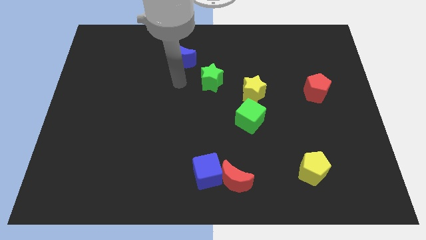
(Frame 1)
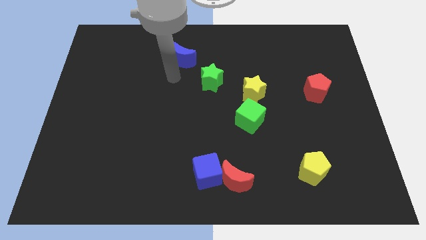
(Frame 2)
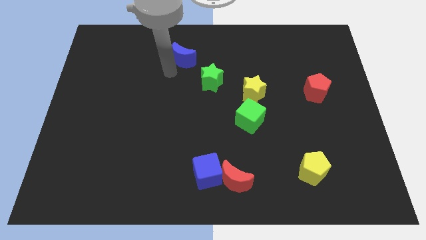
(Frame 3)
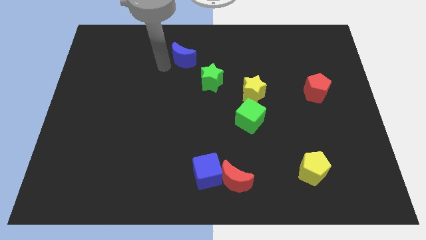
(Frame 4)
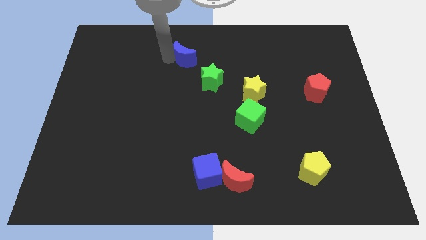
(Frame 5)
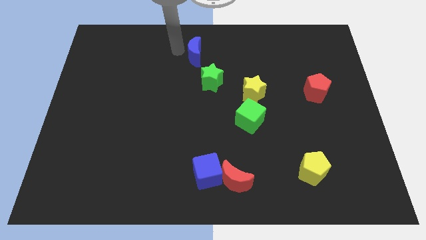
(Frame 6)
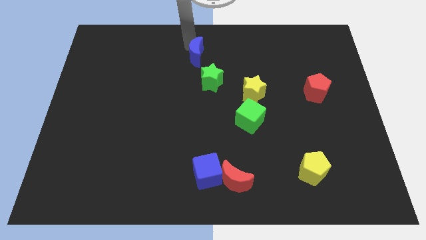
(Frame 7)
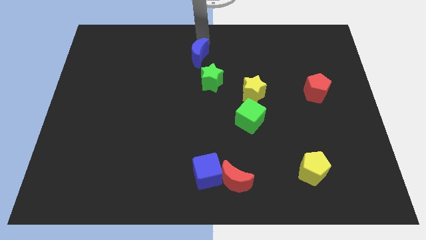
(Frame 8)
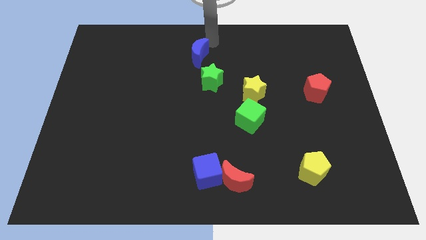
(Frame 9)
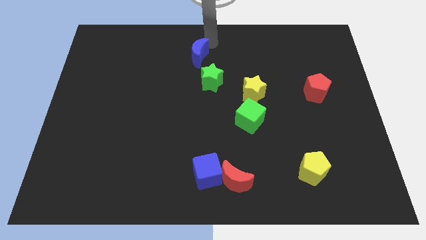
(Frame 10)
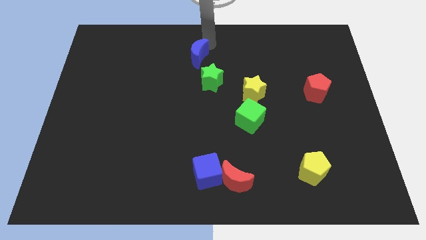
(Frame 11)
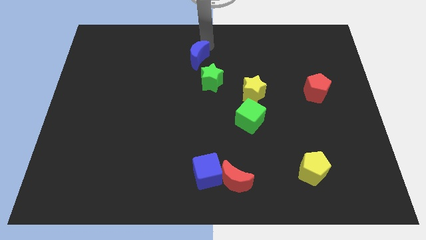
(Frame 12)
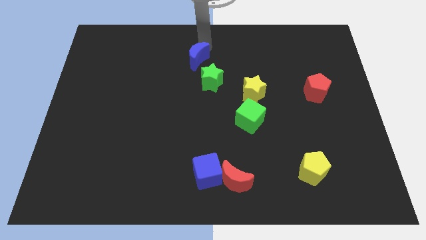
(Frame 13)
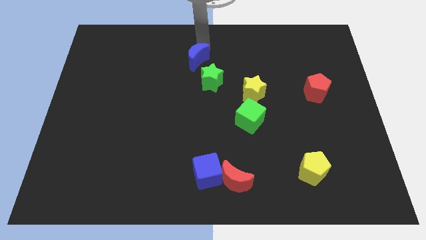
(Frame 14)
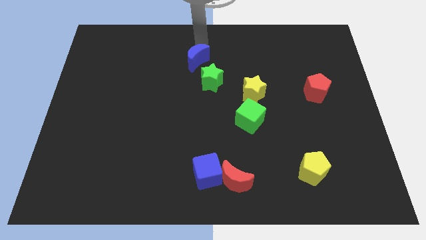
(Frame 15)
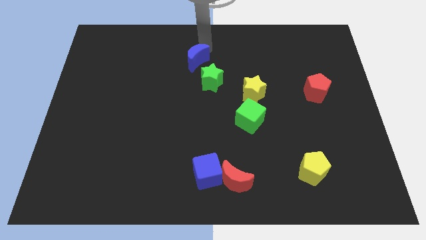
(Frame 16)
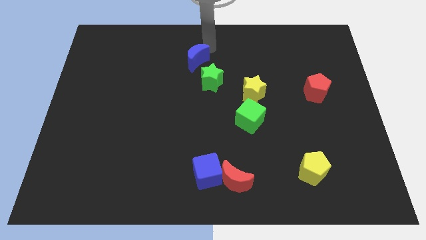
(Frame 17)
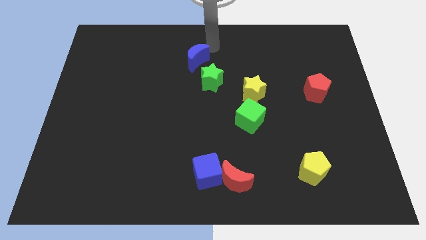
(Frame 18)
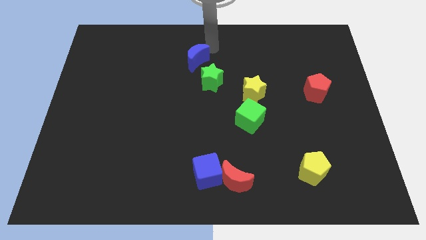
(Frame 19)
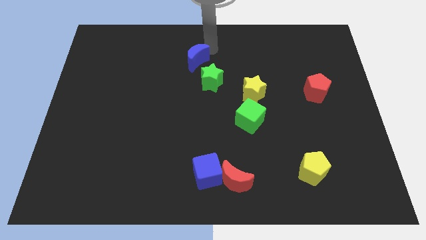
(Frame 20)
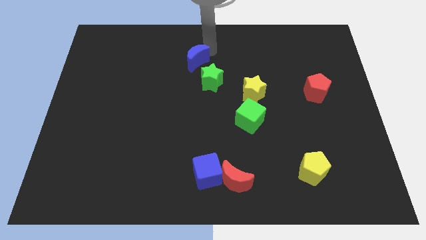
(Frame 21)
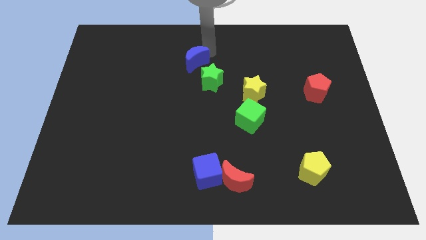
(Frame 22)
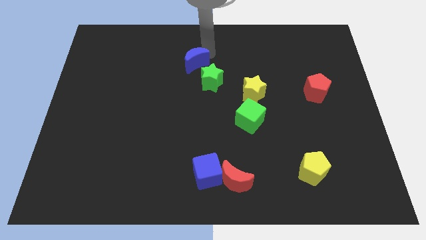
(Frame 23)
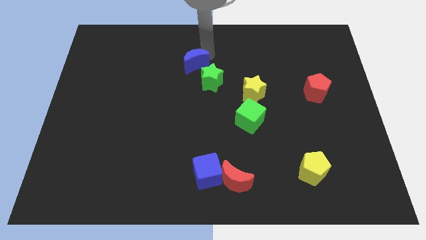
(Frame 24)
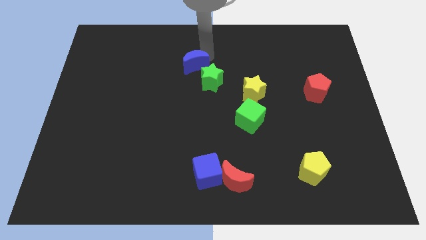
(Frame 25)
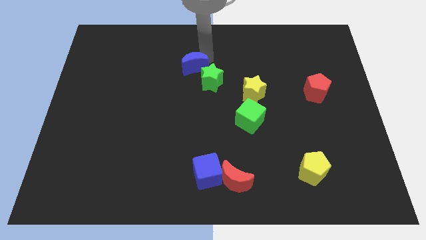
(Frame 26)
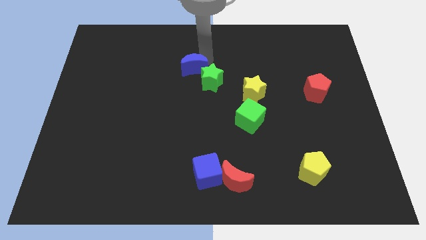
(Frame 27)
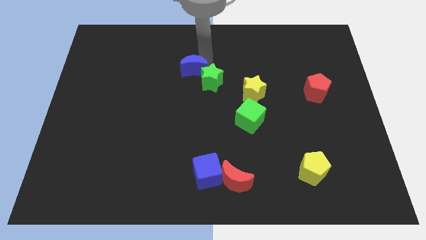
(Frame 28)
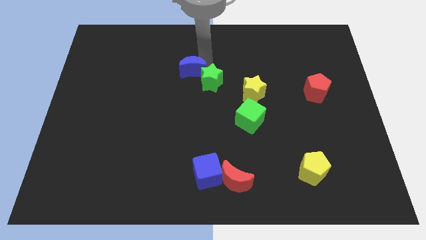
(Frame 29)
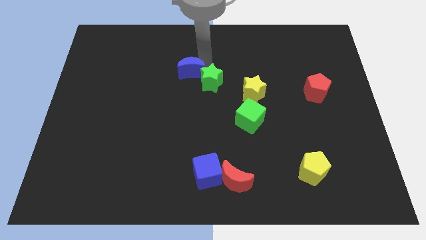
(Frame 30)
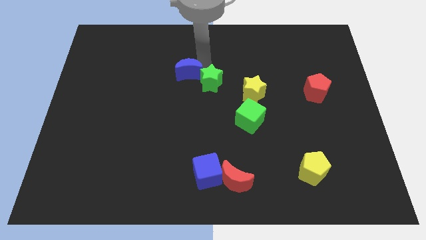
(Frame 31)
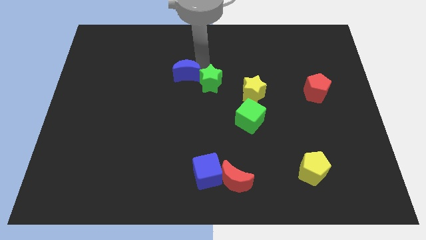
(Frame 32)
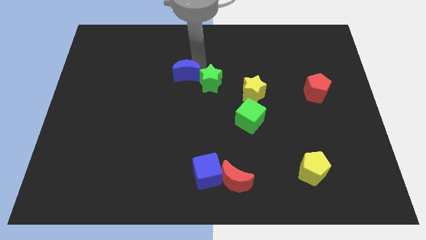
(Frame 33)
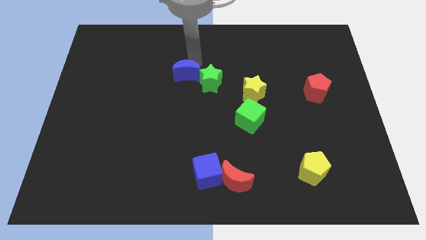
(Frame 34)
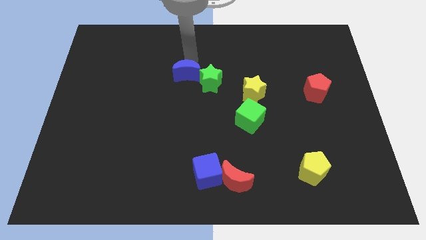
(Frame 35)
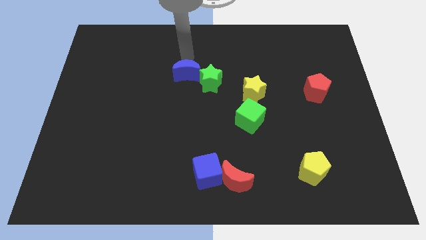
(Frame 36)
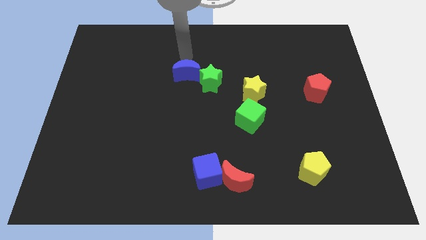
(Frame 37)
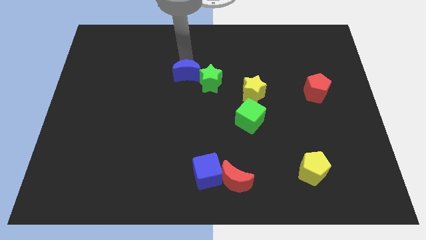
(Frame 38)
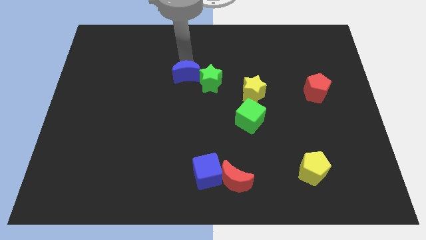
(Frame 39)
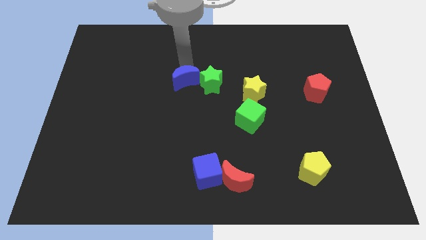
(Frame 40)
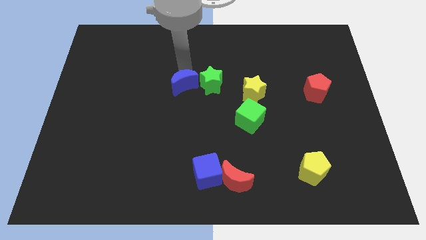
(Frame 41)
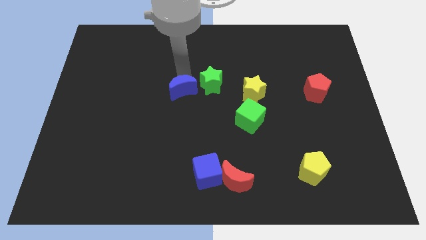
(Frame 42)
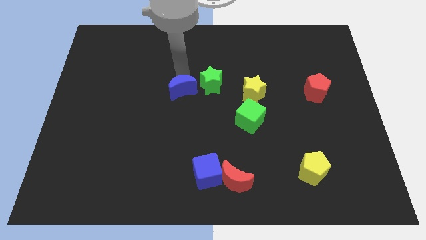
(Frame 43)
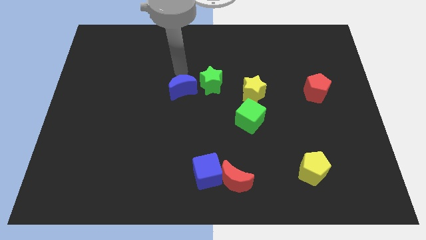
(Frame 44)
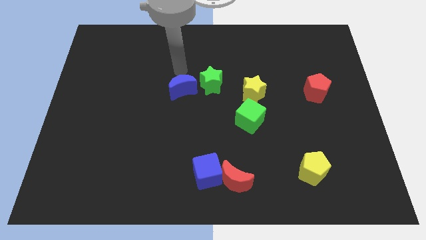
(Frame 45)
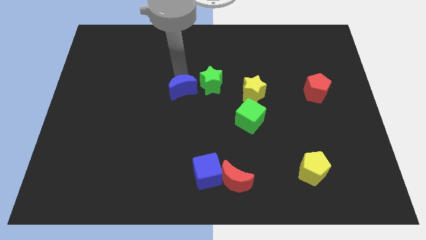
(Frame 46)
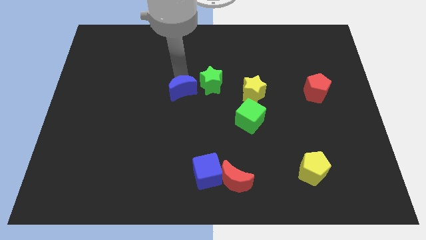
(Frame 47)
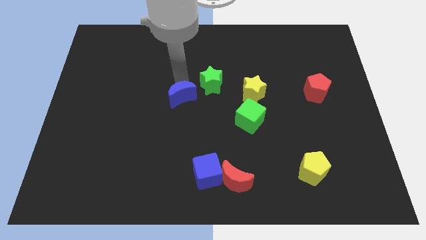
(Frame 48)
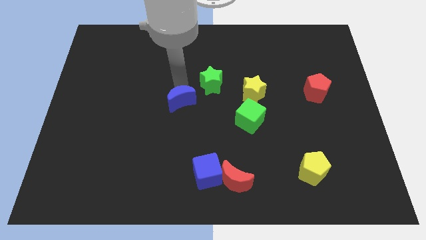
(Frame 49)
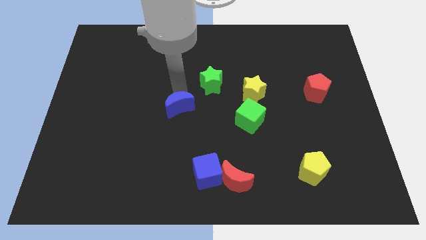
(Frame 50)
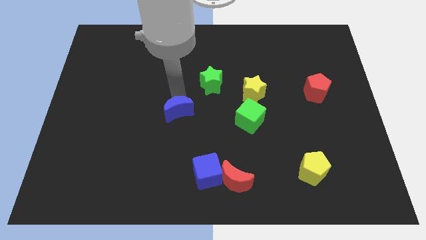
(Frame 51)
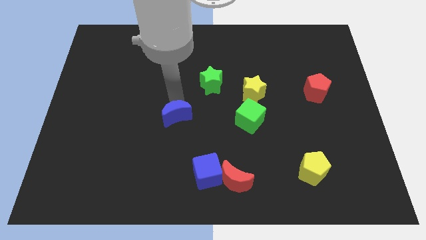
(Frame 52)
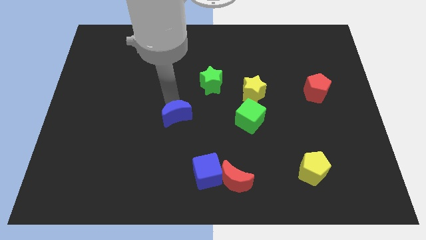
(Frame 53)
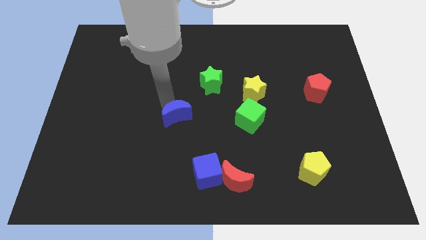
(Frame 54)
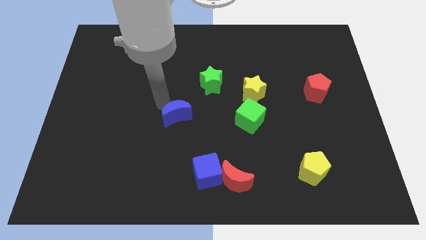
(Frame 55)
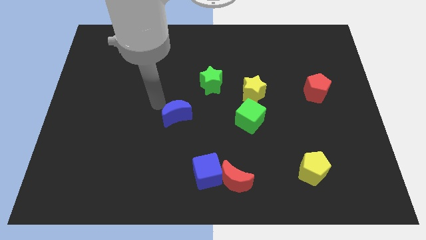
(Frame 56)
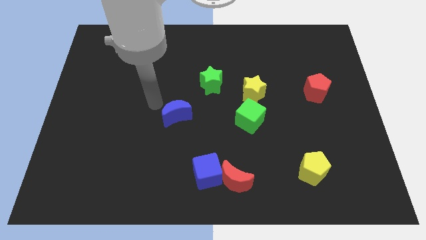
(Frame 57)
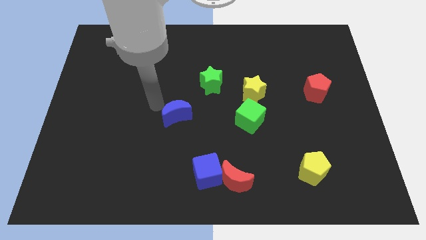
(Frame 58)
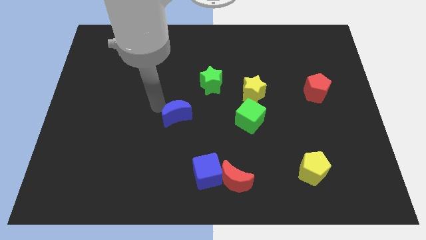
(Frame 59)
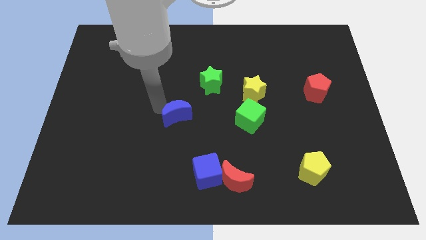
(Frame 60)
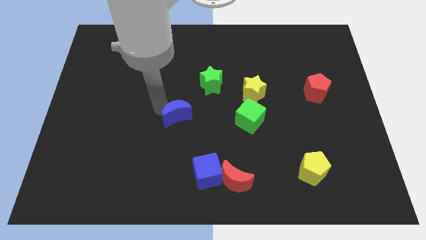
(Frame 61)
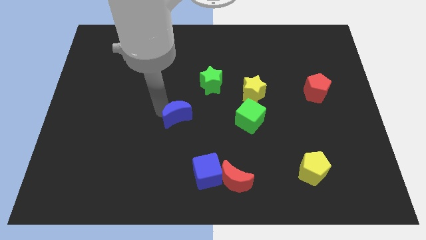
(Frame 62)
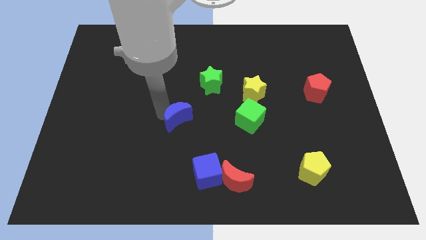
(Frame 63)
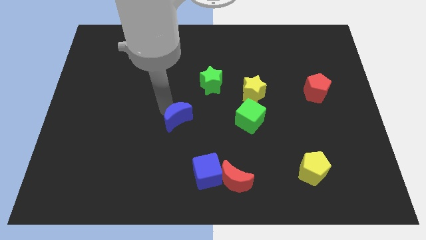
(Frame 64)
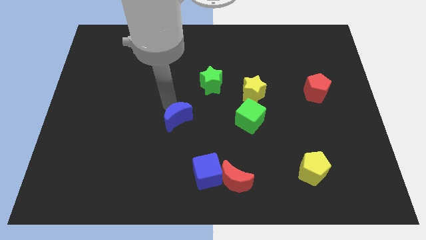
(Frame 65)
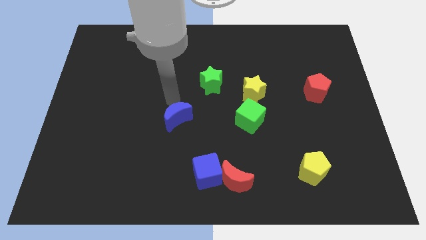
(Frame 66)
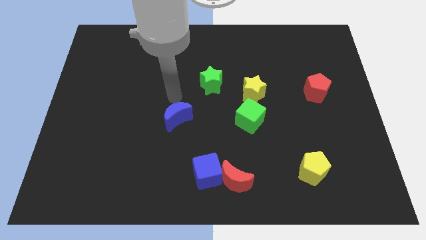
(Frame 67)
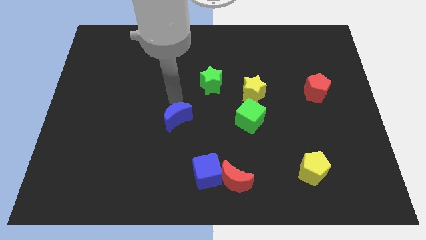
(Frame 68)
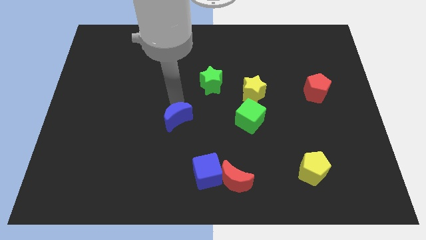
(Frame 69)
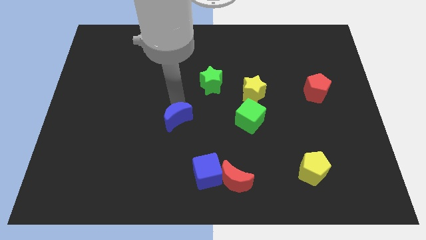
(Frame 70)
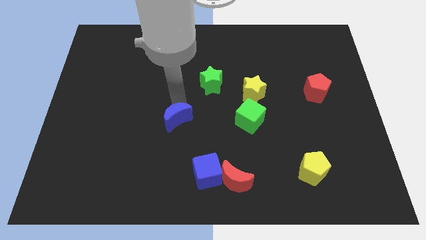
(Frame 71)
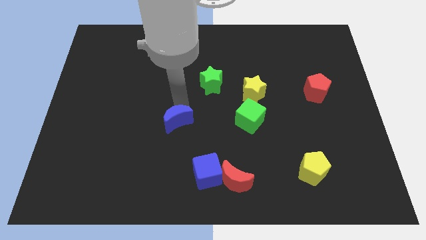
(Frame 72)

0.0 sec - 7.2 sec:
slide the blue moon down

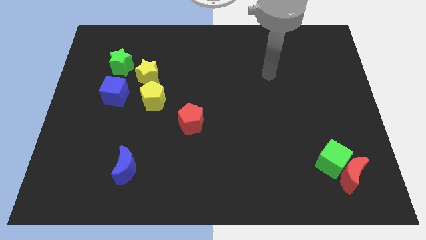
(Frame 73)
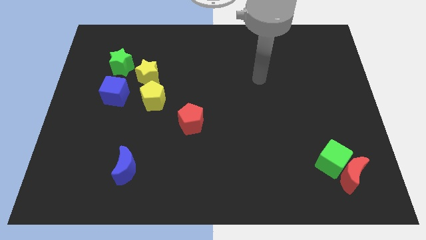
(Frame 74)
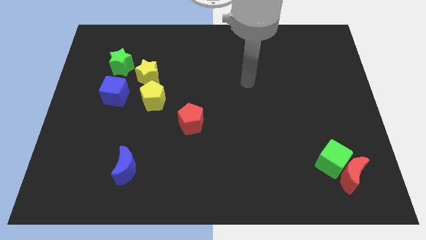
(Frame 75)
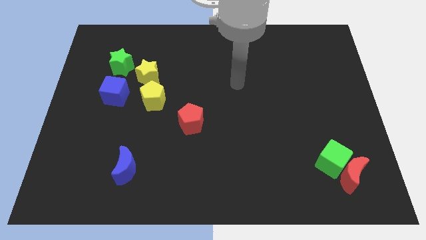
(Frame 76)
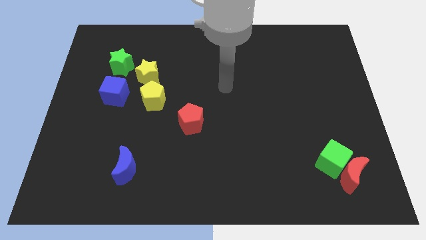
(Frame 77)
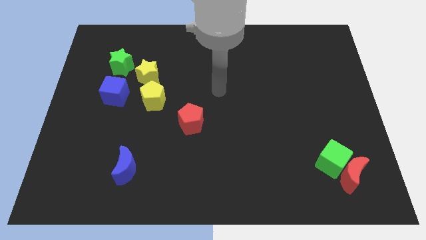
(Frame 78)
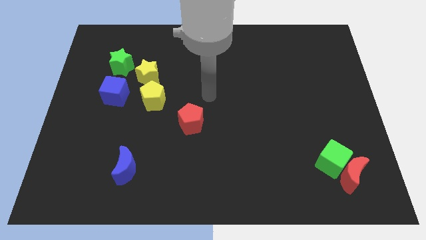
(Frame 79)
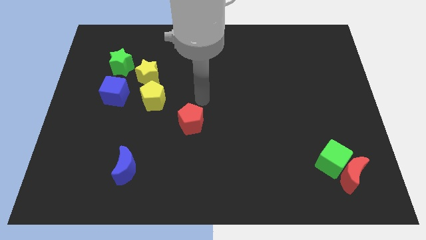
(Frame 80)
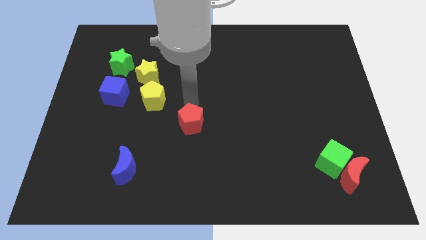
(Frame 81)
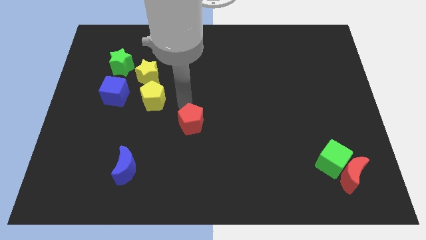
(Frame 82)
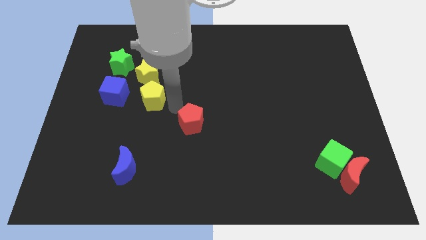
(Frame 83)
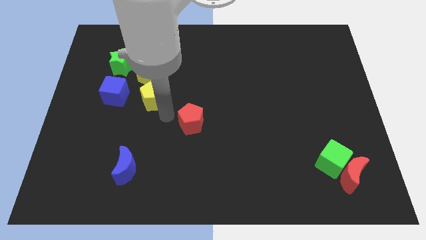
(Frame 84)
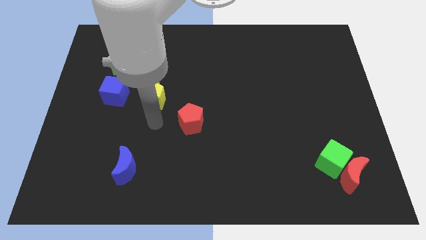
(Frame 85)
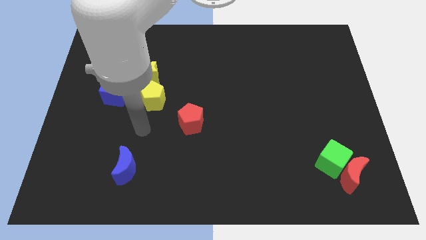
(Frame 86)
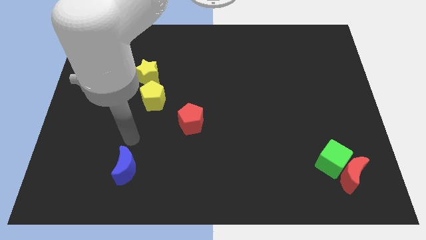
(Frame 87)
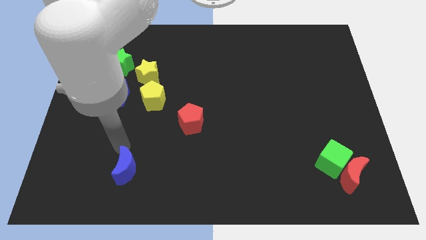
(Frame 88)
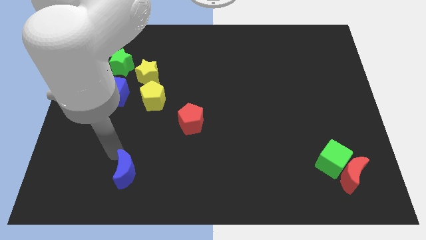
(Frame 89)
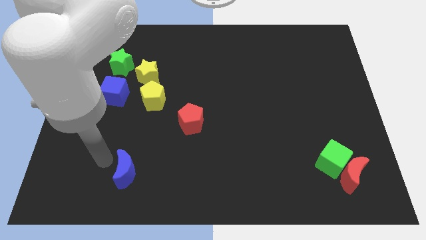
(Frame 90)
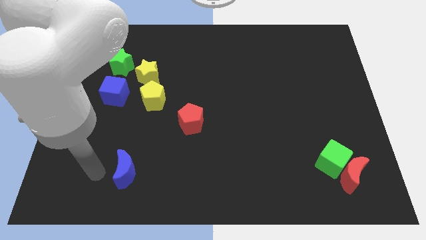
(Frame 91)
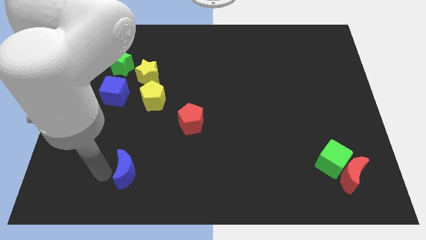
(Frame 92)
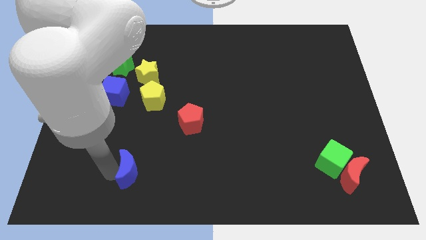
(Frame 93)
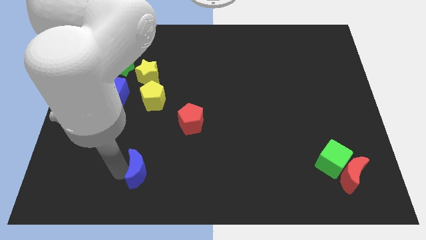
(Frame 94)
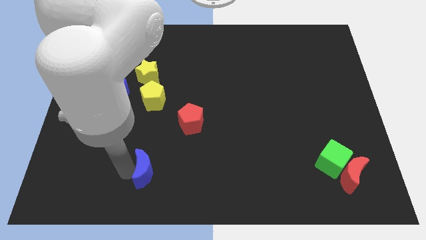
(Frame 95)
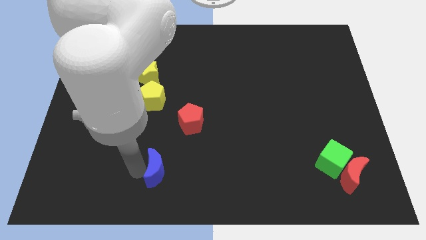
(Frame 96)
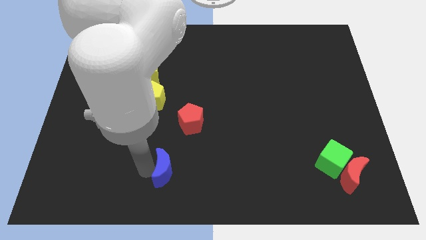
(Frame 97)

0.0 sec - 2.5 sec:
slightly slide the blue moon right
